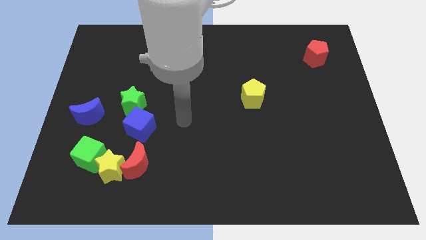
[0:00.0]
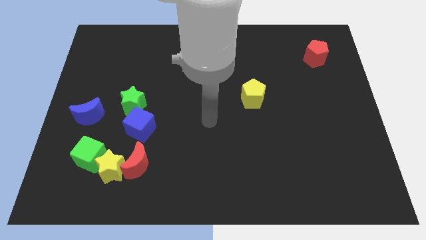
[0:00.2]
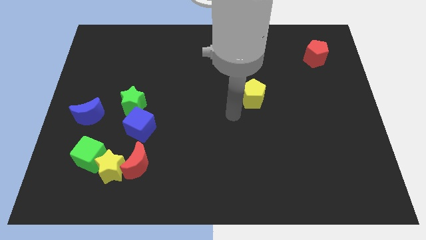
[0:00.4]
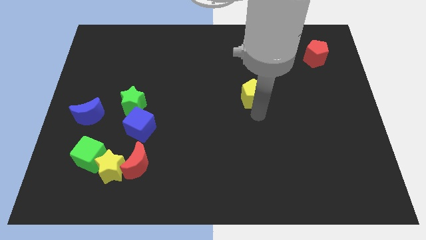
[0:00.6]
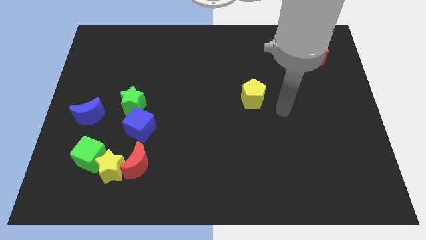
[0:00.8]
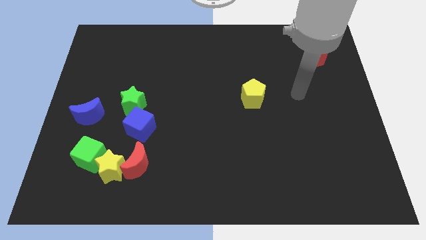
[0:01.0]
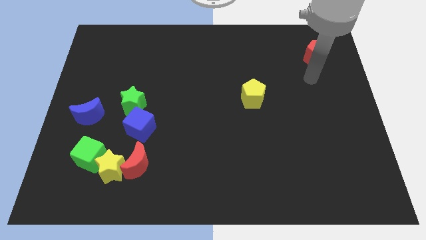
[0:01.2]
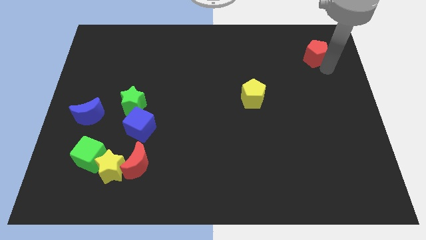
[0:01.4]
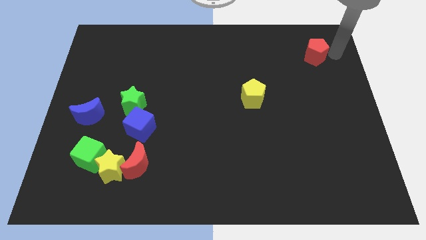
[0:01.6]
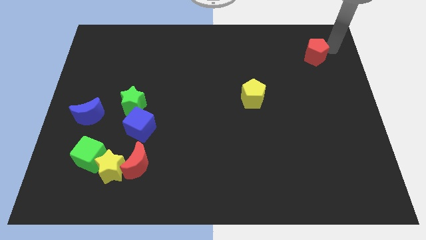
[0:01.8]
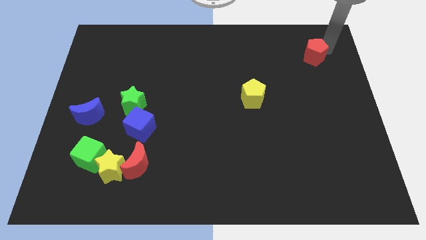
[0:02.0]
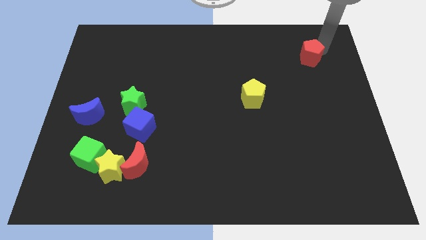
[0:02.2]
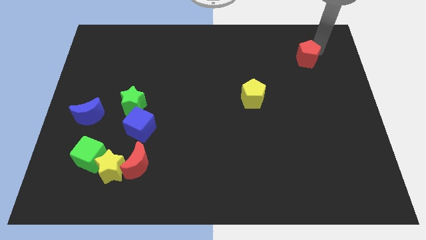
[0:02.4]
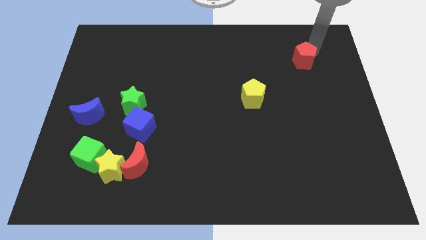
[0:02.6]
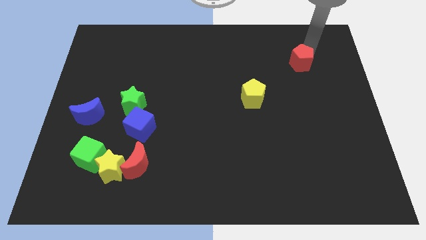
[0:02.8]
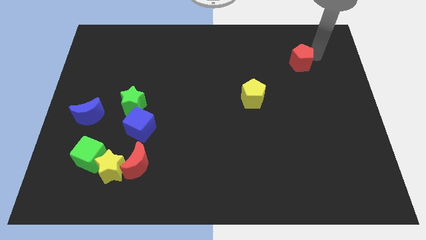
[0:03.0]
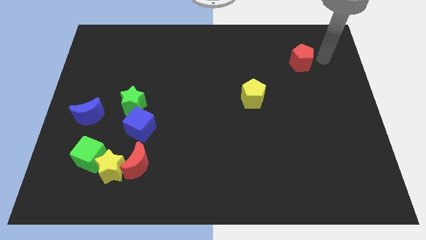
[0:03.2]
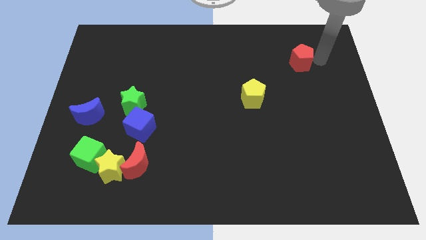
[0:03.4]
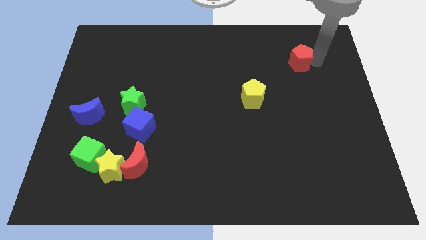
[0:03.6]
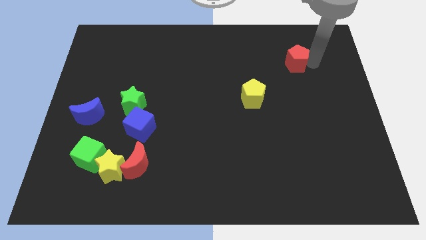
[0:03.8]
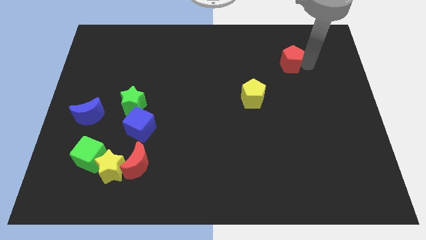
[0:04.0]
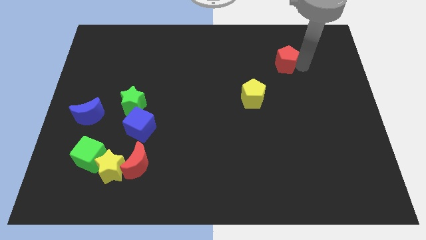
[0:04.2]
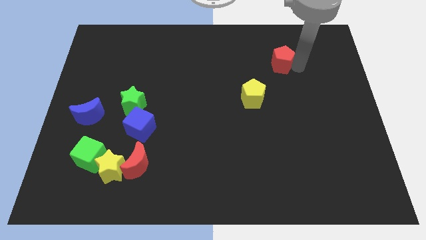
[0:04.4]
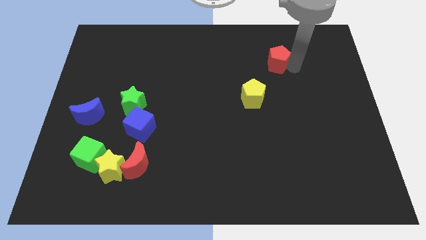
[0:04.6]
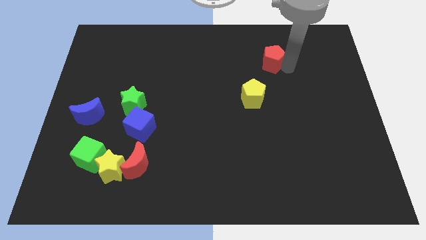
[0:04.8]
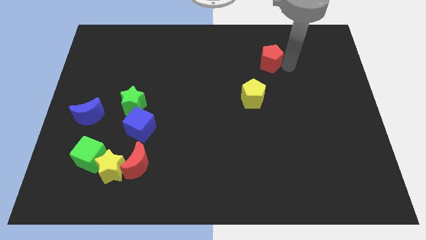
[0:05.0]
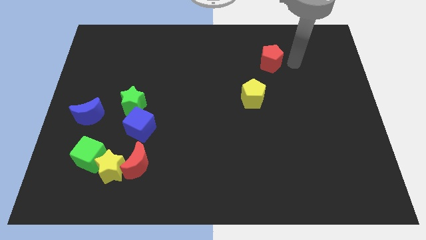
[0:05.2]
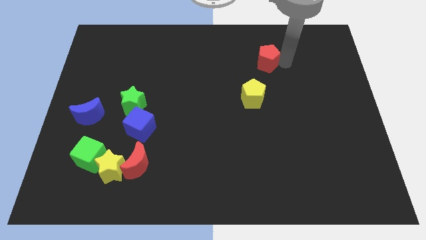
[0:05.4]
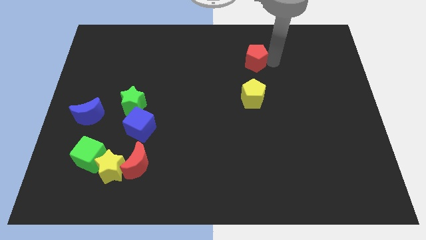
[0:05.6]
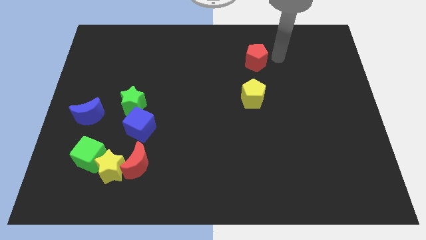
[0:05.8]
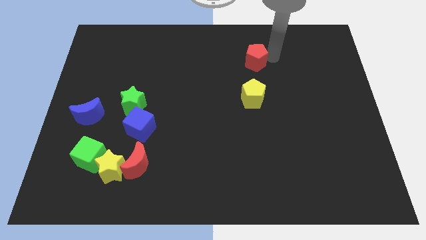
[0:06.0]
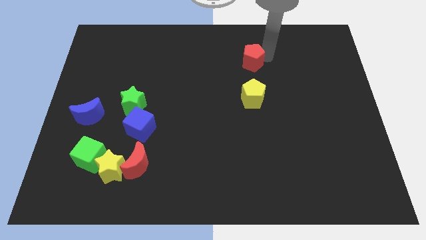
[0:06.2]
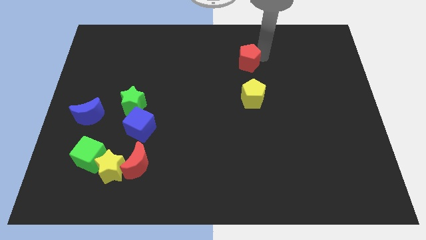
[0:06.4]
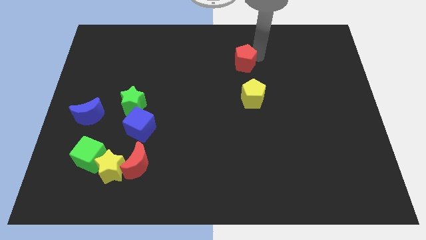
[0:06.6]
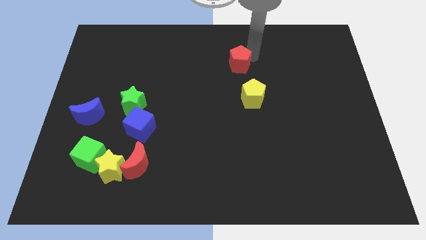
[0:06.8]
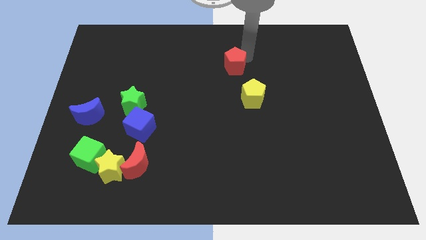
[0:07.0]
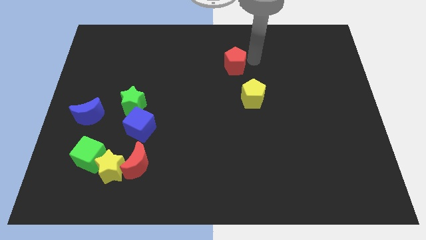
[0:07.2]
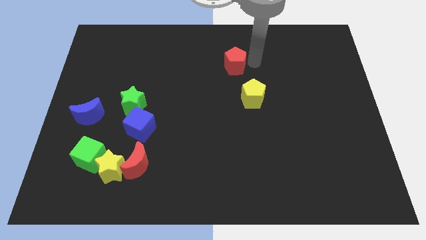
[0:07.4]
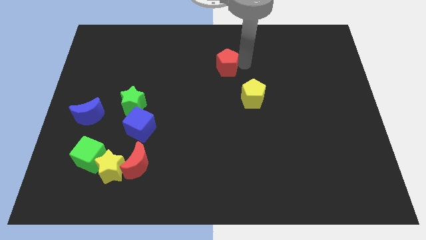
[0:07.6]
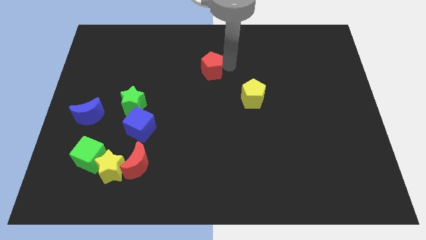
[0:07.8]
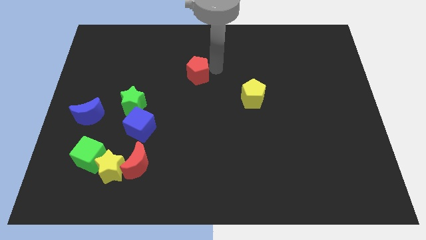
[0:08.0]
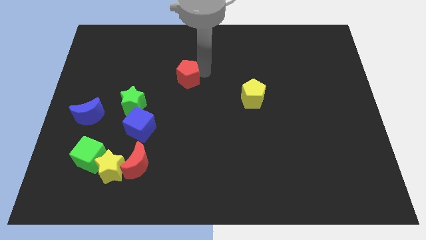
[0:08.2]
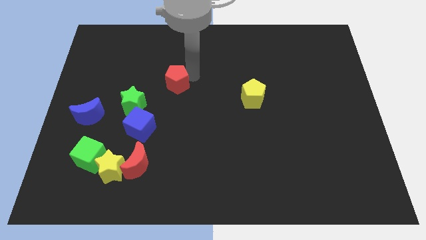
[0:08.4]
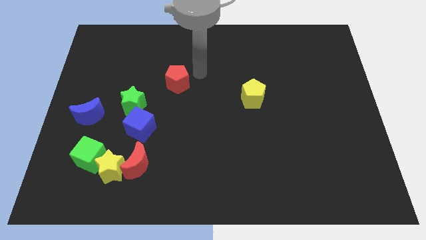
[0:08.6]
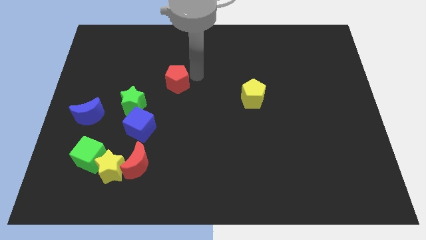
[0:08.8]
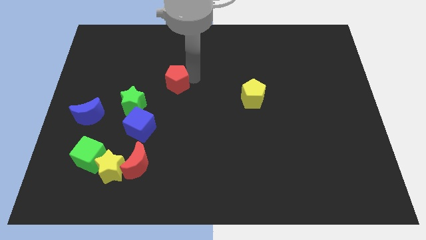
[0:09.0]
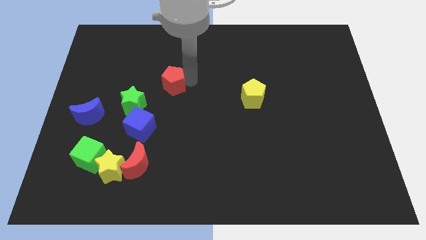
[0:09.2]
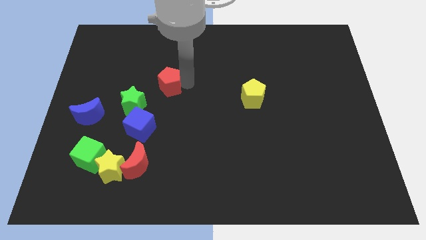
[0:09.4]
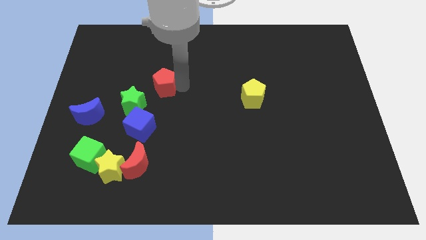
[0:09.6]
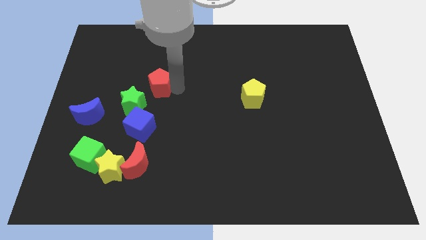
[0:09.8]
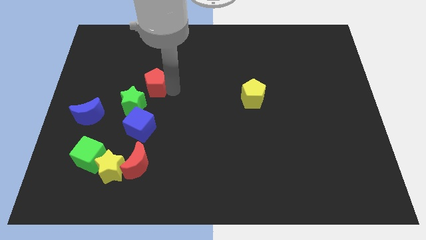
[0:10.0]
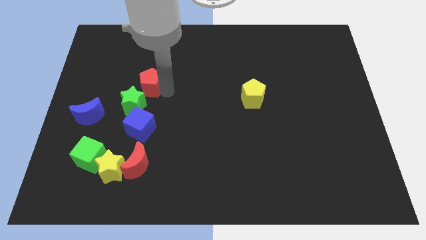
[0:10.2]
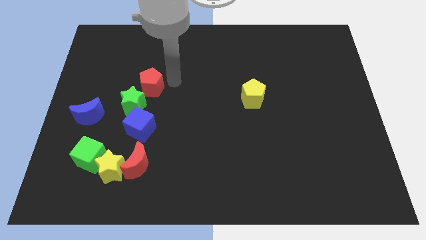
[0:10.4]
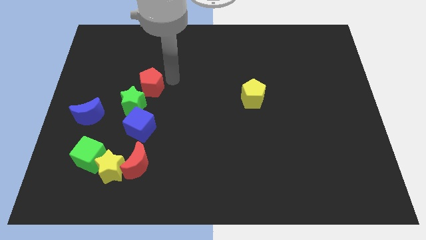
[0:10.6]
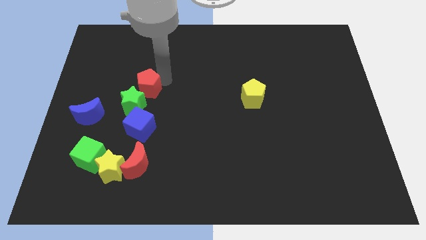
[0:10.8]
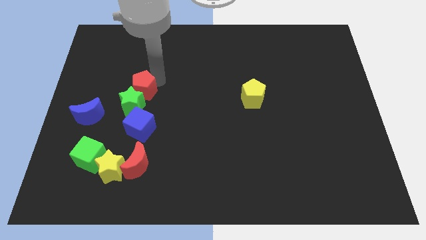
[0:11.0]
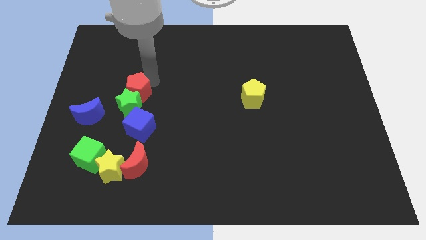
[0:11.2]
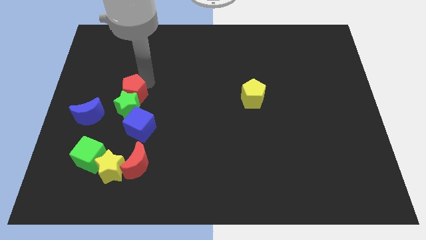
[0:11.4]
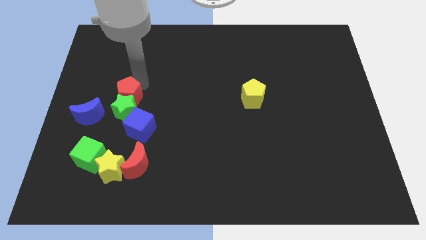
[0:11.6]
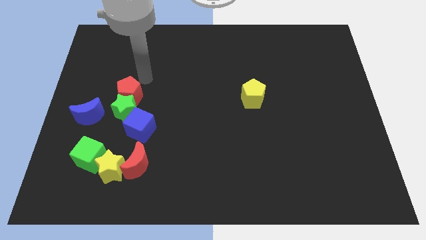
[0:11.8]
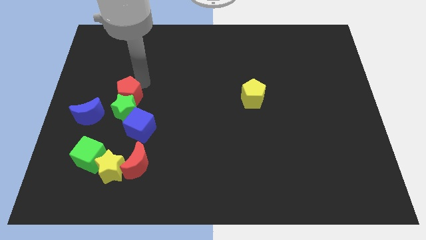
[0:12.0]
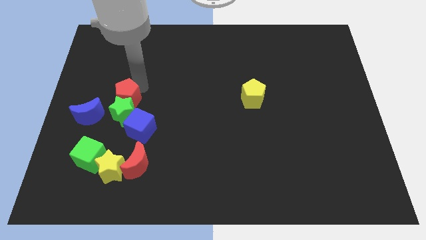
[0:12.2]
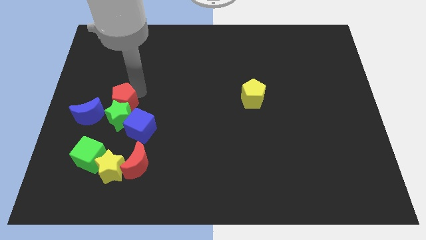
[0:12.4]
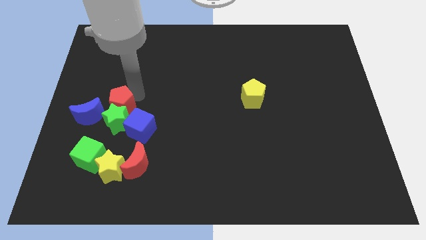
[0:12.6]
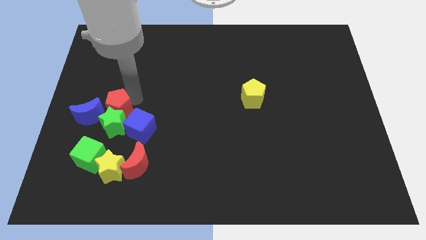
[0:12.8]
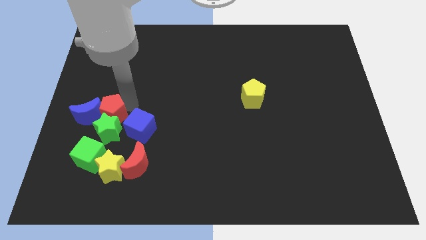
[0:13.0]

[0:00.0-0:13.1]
push the red pentagon left of the blue cube
